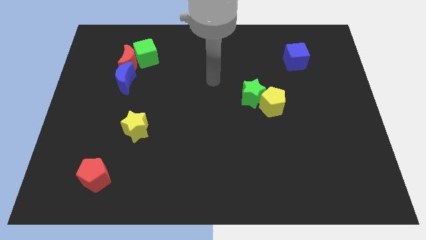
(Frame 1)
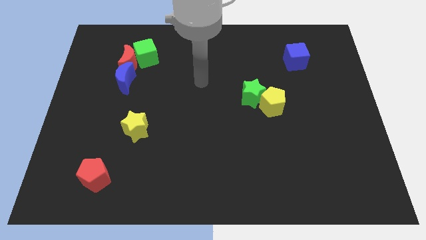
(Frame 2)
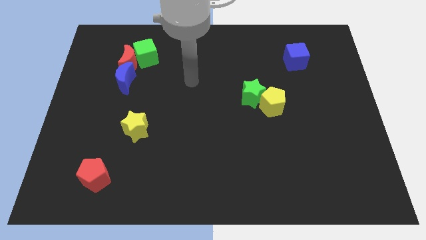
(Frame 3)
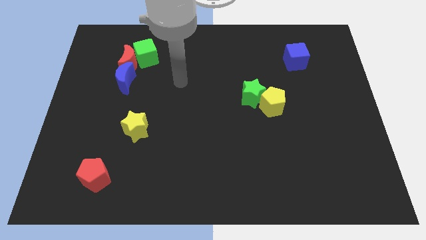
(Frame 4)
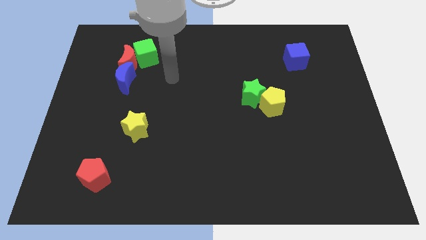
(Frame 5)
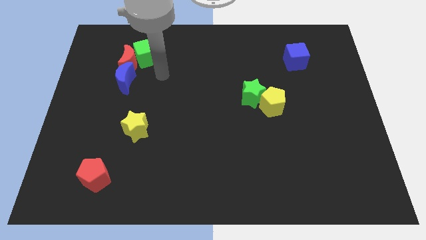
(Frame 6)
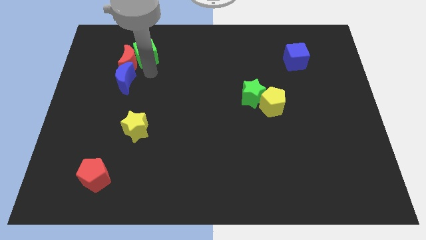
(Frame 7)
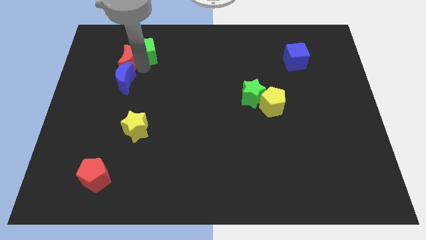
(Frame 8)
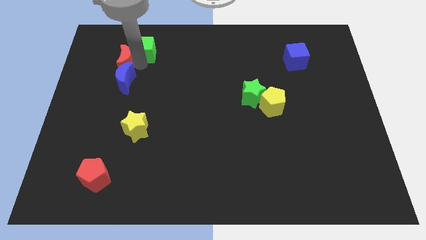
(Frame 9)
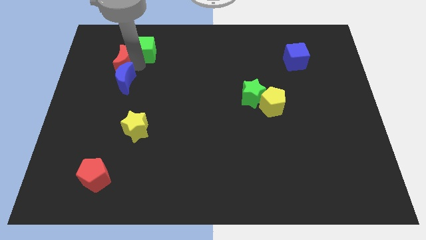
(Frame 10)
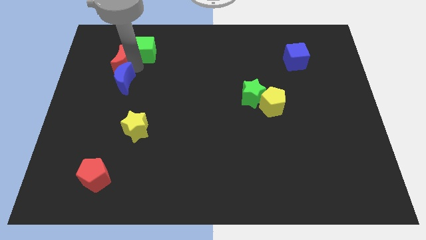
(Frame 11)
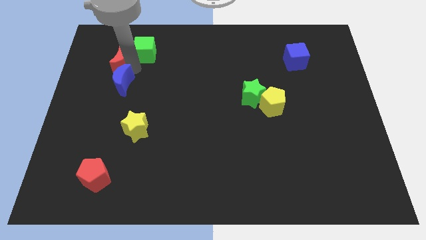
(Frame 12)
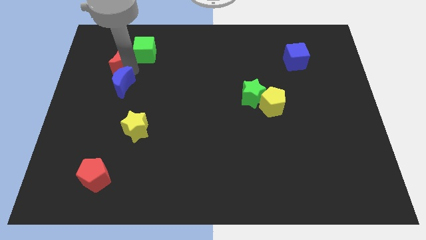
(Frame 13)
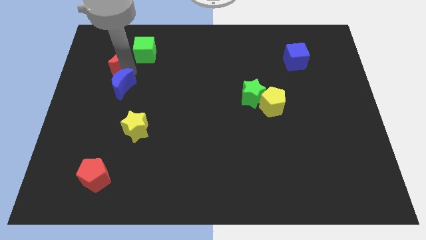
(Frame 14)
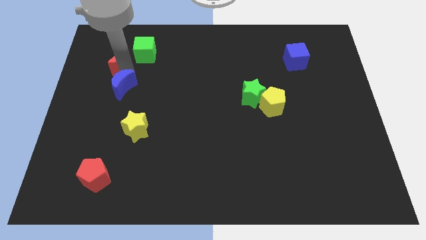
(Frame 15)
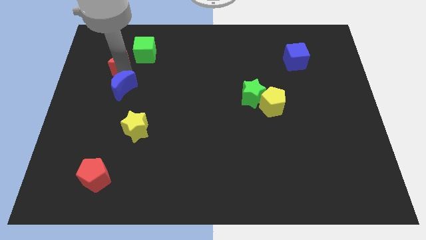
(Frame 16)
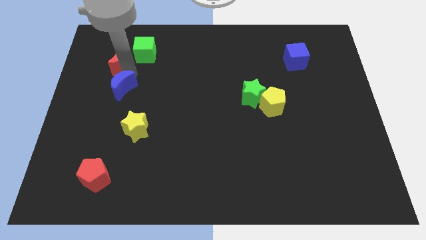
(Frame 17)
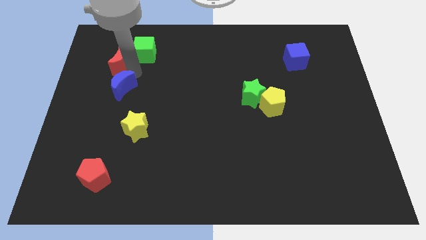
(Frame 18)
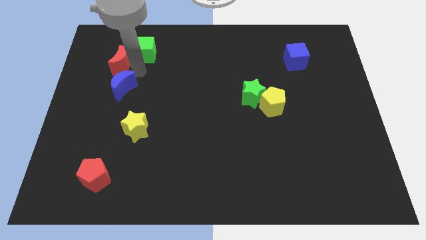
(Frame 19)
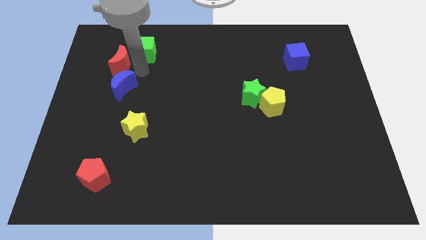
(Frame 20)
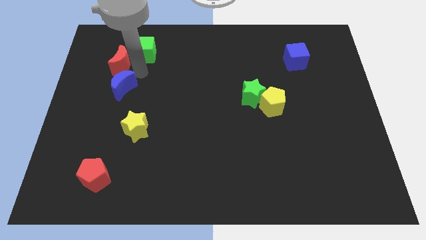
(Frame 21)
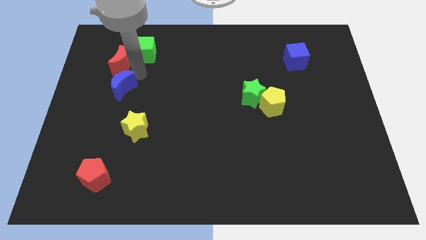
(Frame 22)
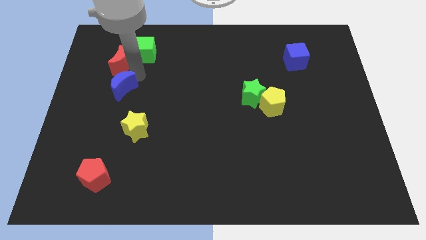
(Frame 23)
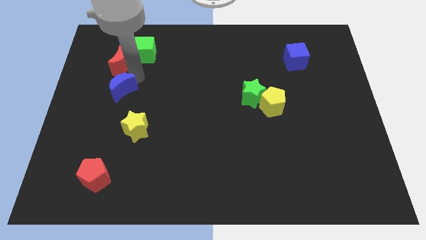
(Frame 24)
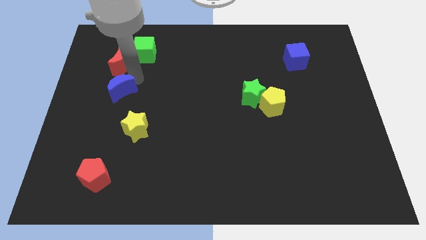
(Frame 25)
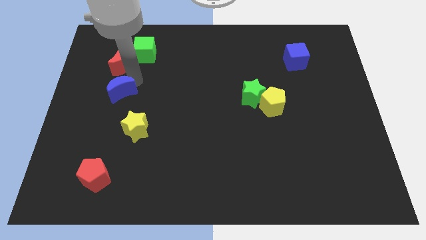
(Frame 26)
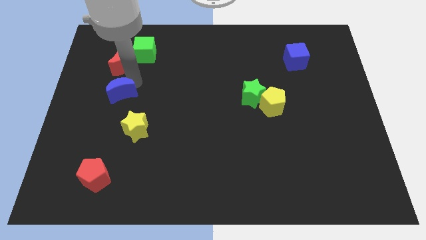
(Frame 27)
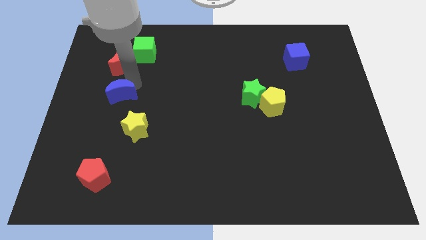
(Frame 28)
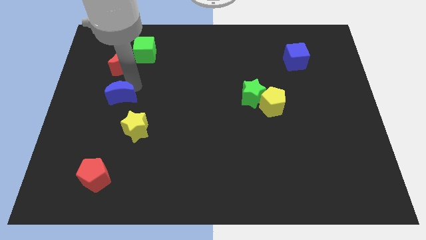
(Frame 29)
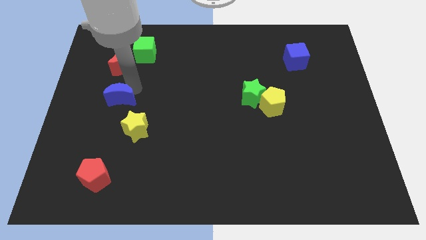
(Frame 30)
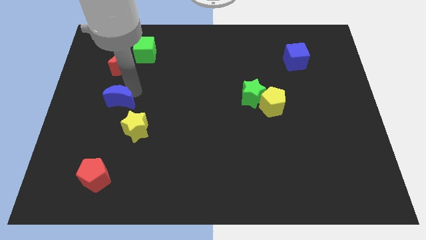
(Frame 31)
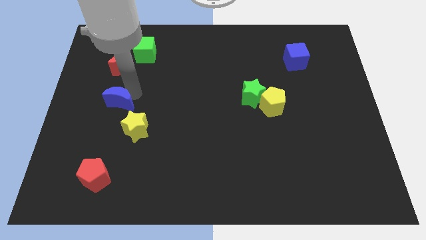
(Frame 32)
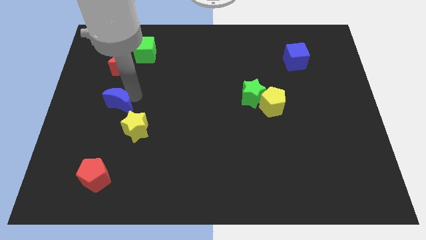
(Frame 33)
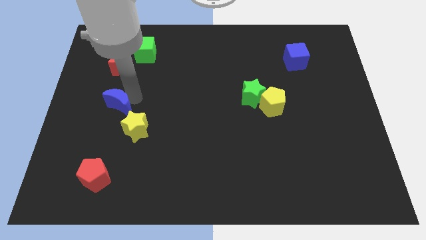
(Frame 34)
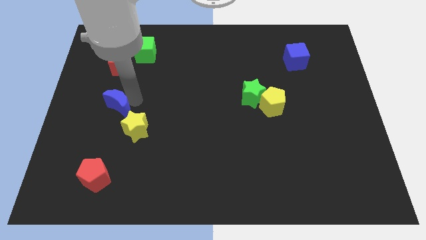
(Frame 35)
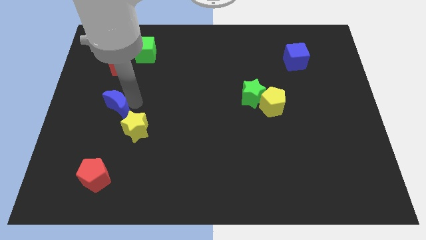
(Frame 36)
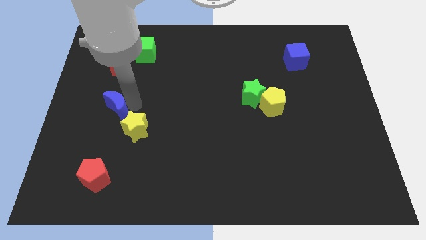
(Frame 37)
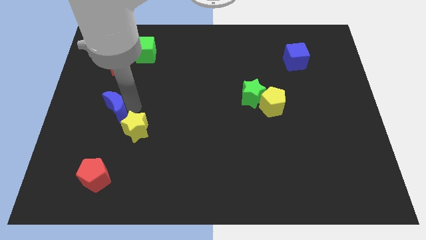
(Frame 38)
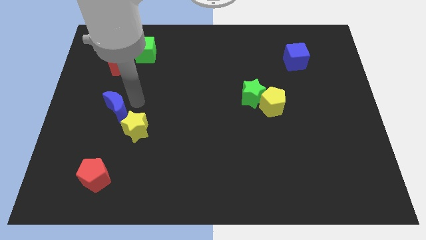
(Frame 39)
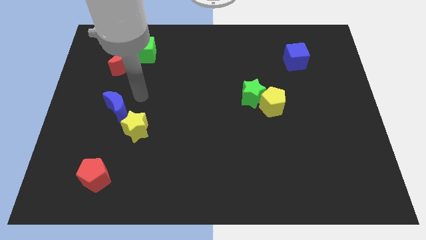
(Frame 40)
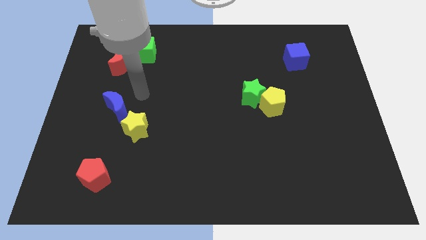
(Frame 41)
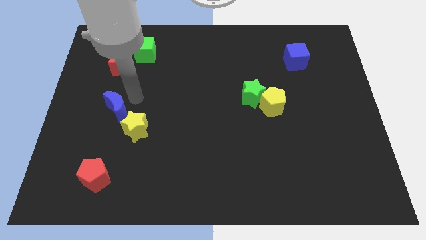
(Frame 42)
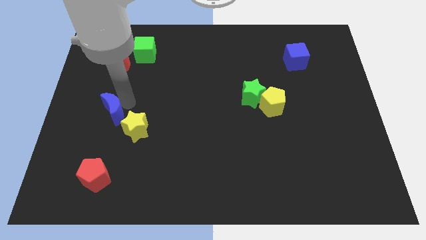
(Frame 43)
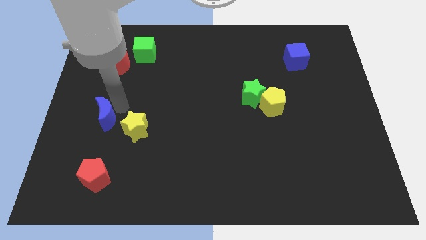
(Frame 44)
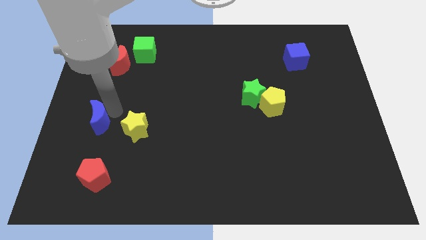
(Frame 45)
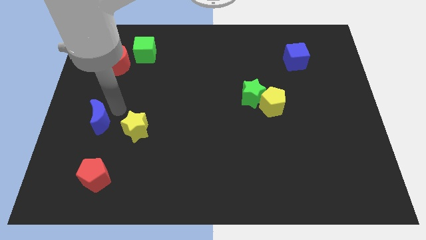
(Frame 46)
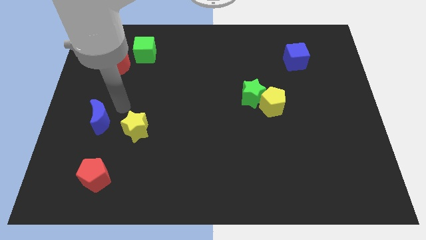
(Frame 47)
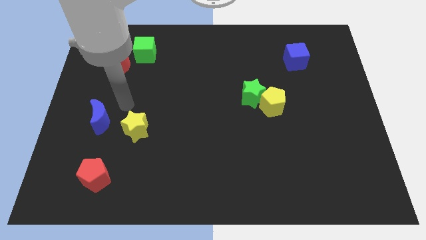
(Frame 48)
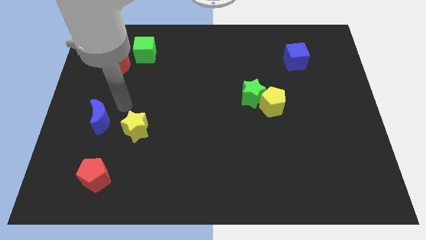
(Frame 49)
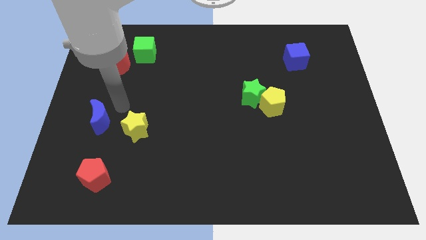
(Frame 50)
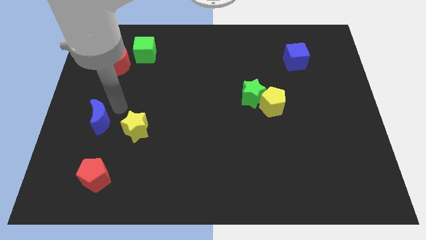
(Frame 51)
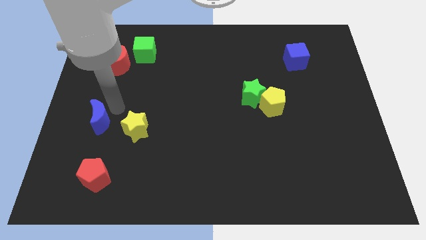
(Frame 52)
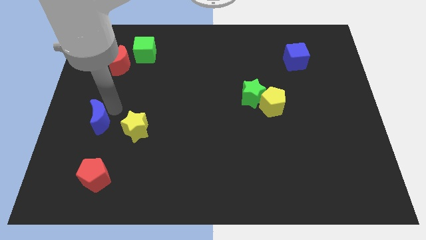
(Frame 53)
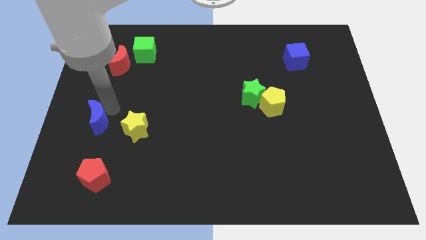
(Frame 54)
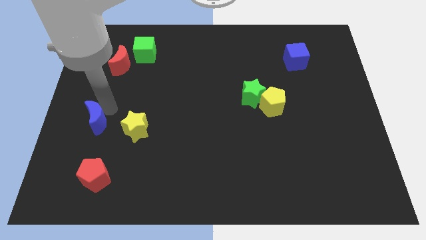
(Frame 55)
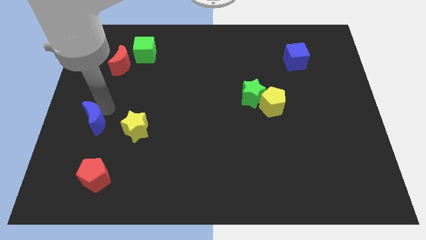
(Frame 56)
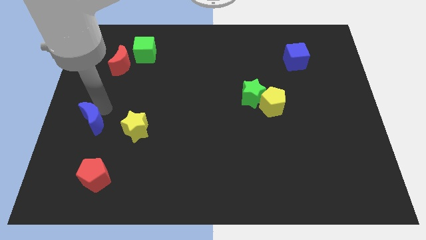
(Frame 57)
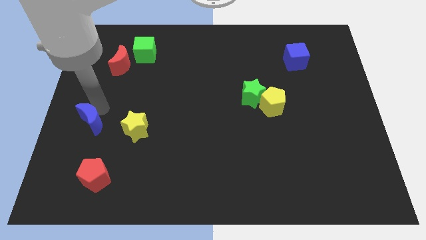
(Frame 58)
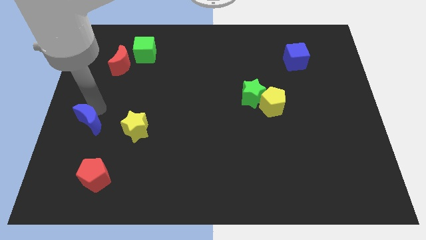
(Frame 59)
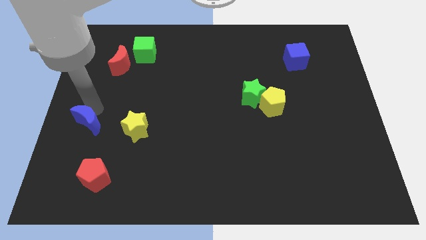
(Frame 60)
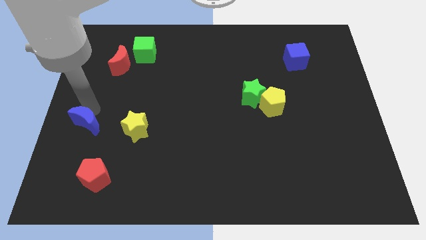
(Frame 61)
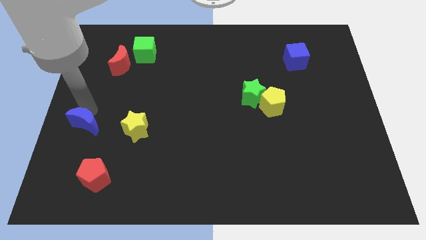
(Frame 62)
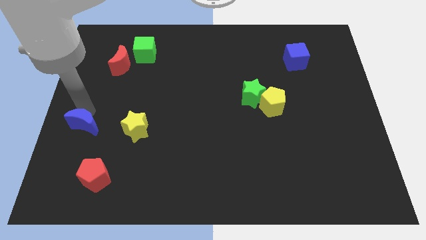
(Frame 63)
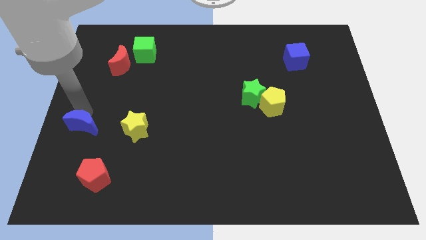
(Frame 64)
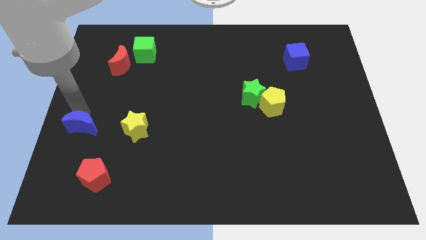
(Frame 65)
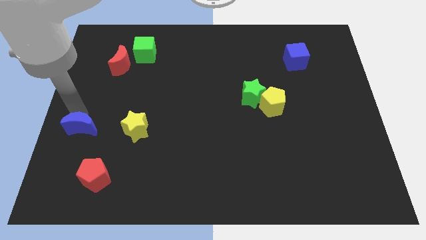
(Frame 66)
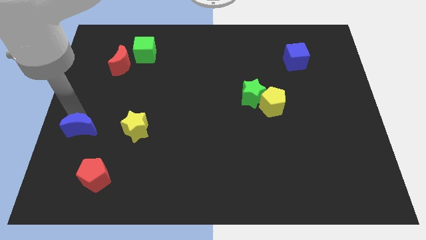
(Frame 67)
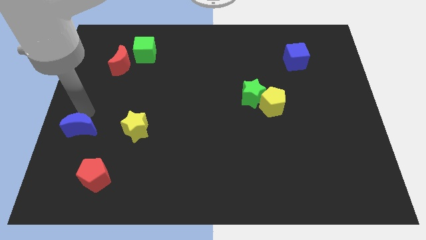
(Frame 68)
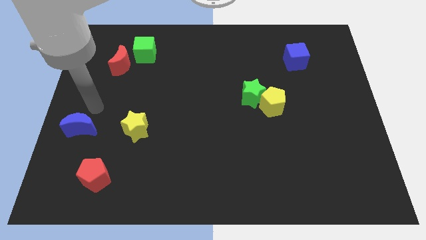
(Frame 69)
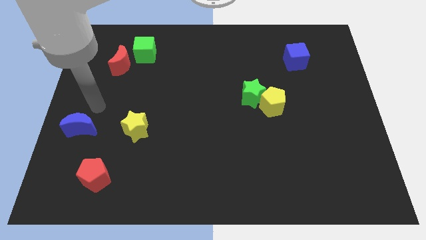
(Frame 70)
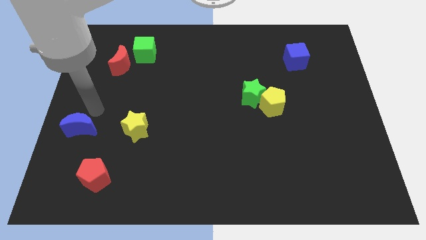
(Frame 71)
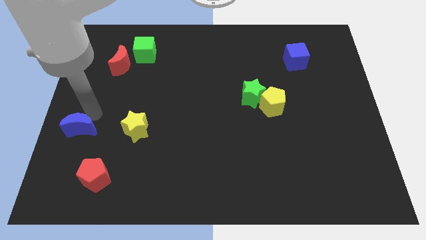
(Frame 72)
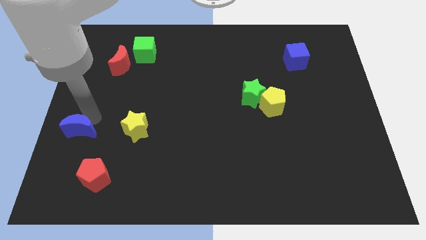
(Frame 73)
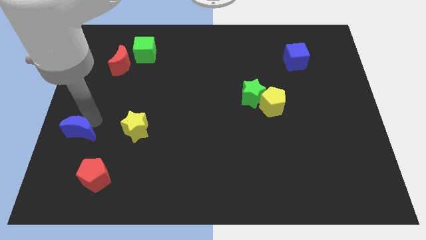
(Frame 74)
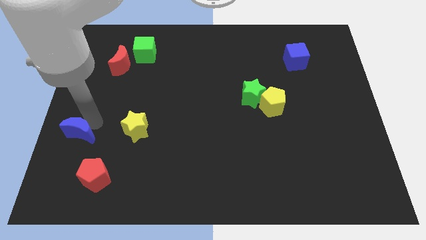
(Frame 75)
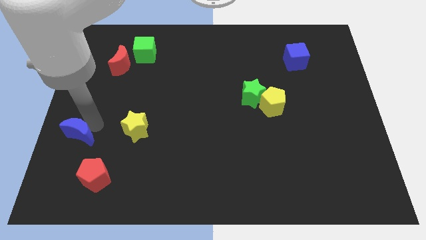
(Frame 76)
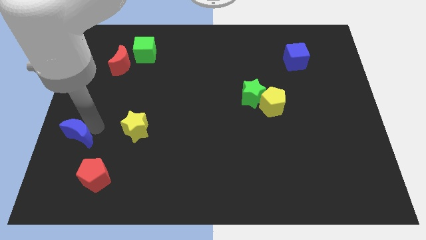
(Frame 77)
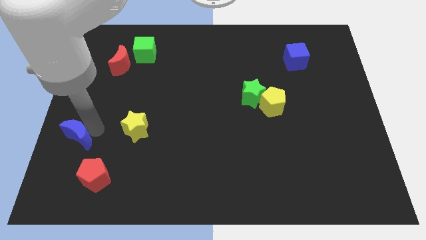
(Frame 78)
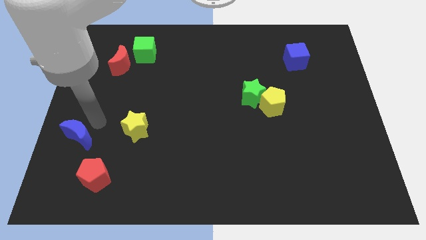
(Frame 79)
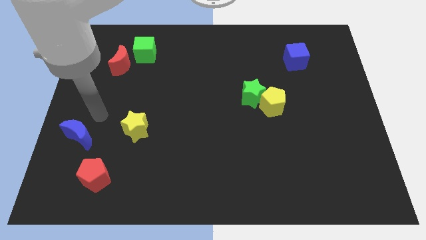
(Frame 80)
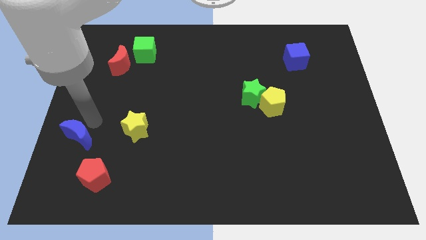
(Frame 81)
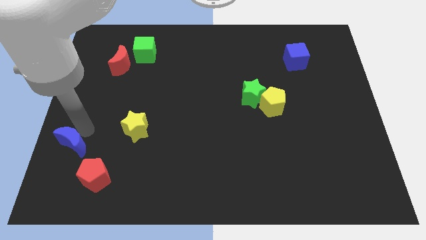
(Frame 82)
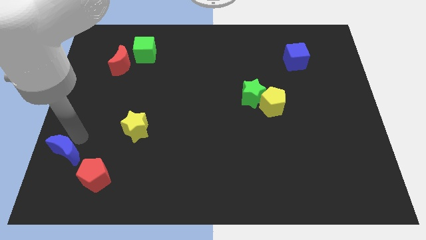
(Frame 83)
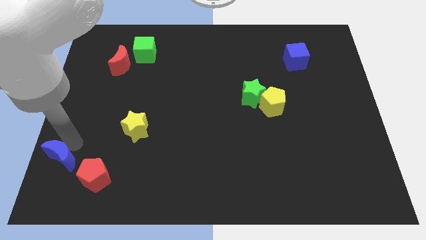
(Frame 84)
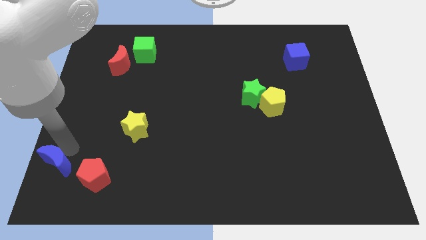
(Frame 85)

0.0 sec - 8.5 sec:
push the blue moon to the lower left corner
